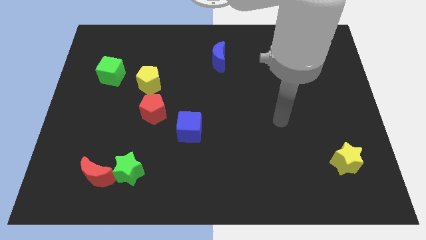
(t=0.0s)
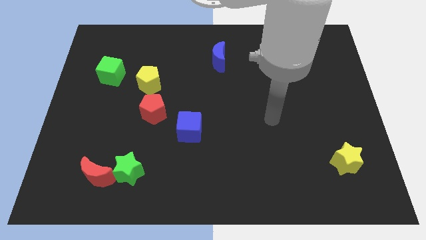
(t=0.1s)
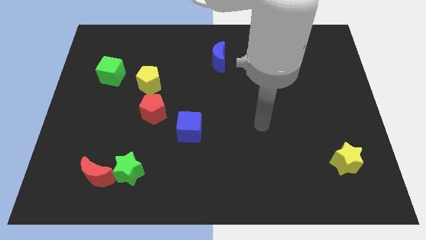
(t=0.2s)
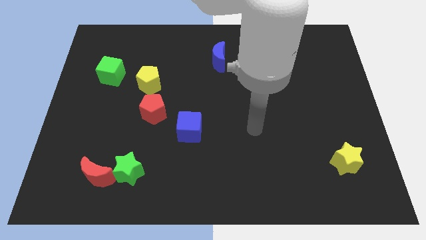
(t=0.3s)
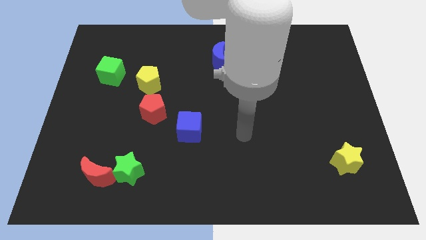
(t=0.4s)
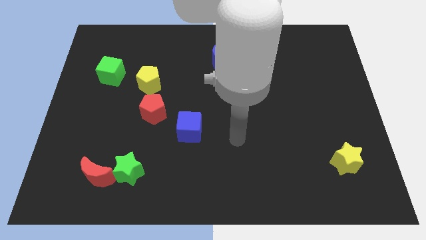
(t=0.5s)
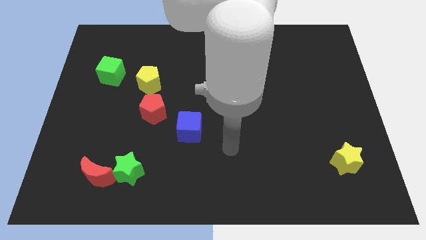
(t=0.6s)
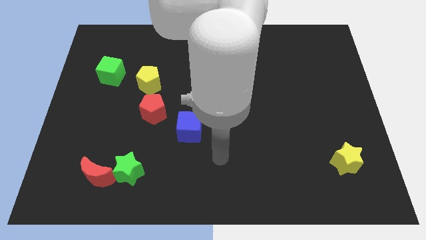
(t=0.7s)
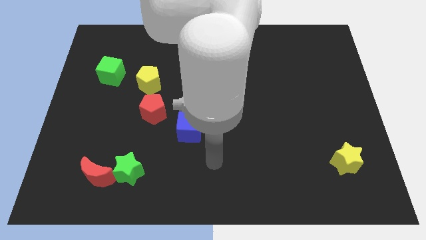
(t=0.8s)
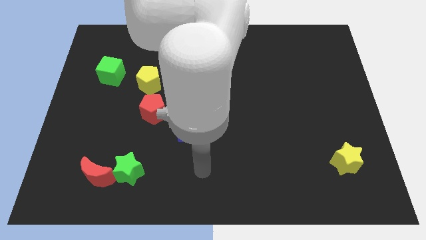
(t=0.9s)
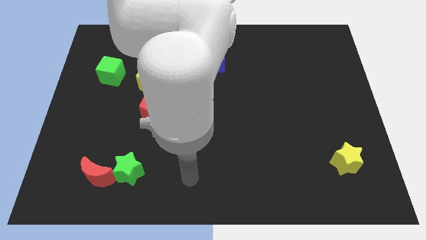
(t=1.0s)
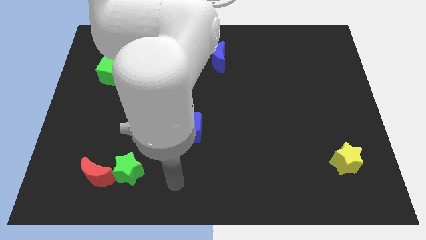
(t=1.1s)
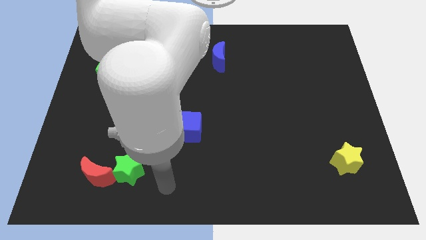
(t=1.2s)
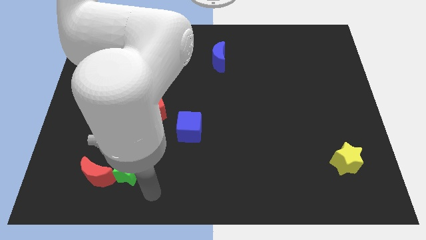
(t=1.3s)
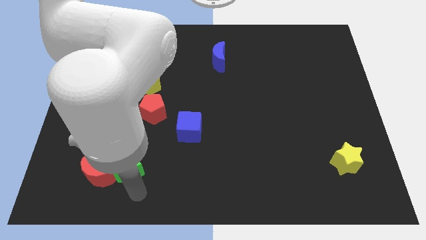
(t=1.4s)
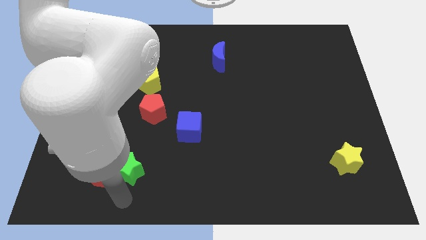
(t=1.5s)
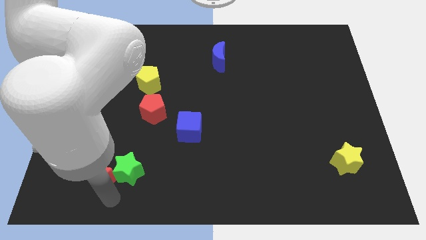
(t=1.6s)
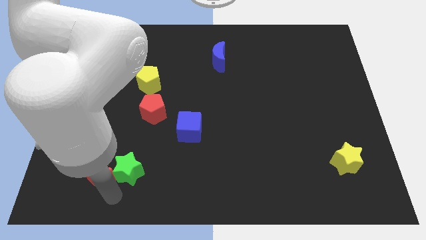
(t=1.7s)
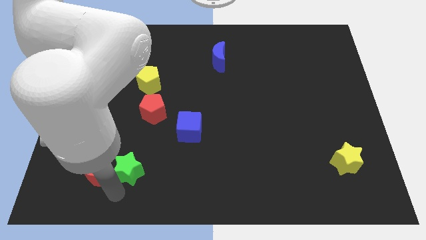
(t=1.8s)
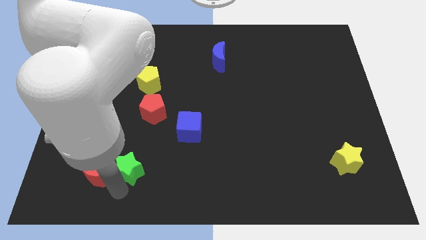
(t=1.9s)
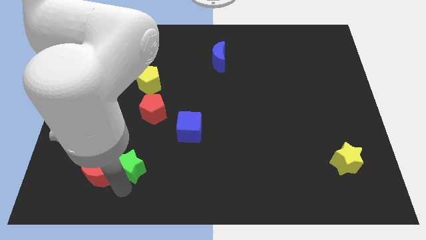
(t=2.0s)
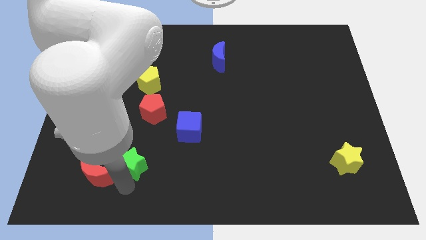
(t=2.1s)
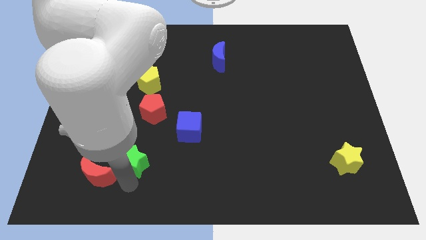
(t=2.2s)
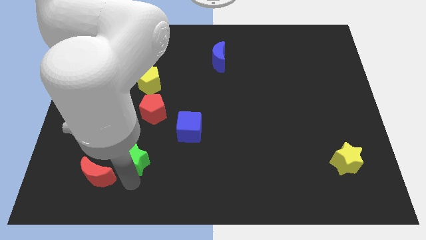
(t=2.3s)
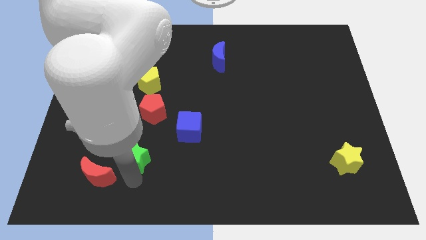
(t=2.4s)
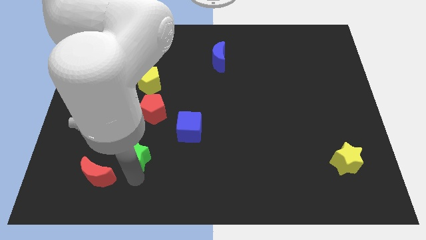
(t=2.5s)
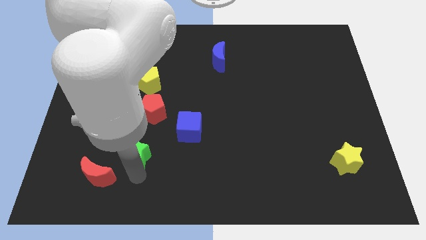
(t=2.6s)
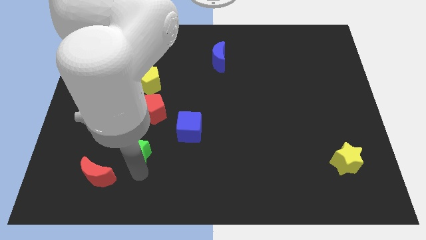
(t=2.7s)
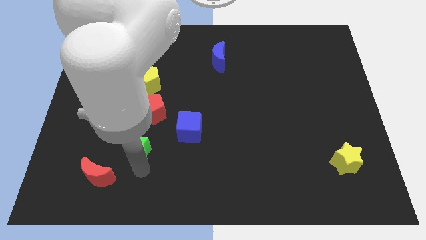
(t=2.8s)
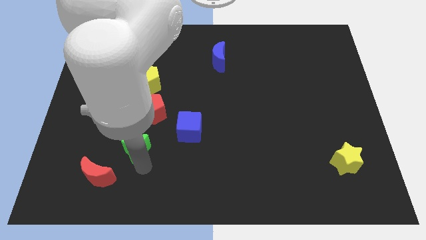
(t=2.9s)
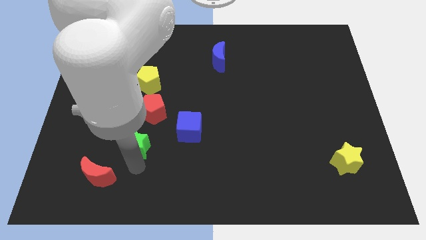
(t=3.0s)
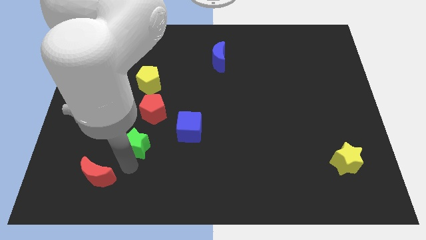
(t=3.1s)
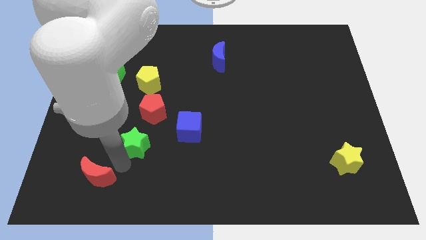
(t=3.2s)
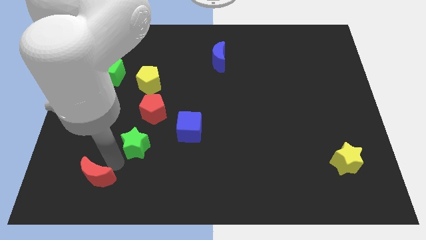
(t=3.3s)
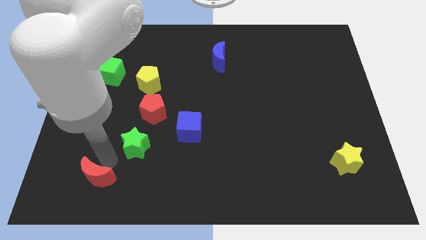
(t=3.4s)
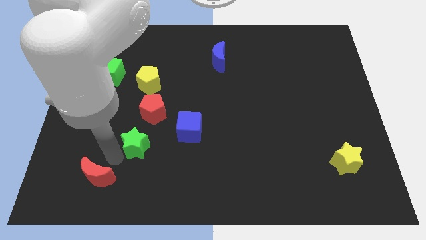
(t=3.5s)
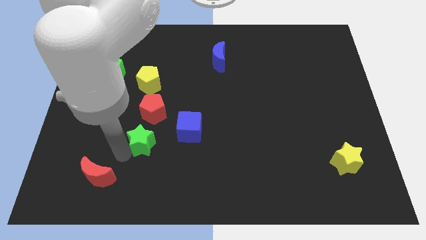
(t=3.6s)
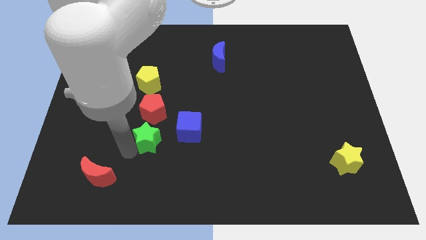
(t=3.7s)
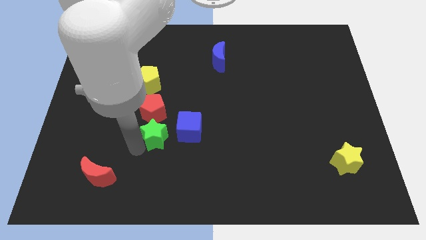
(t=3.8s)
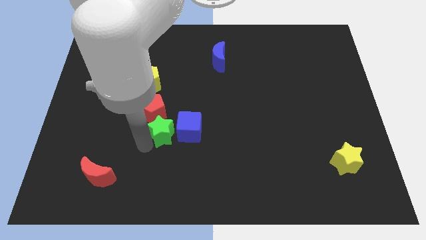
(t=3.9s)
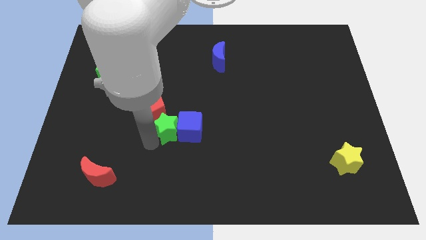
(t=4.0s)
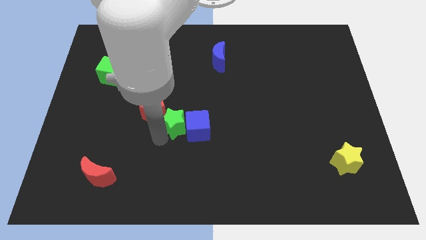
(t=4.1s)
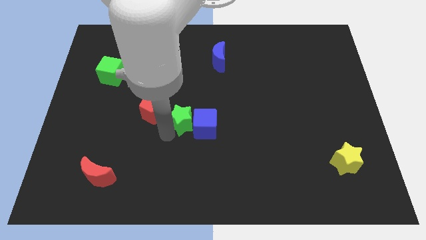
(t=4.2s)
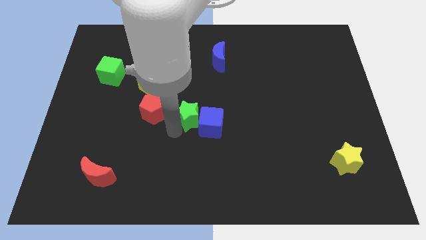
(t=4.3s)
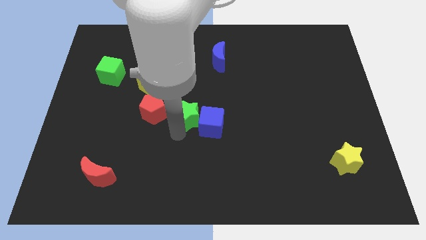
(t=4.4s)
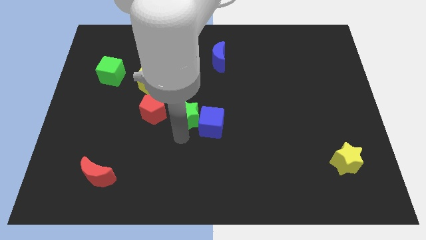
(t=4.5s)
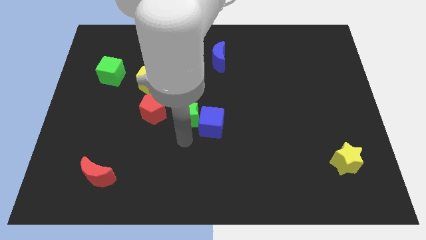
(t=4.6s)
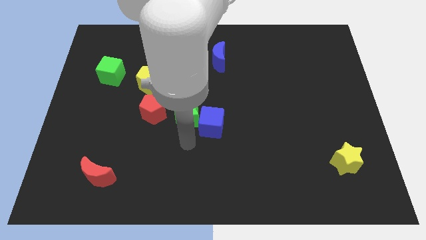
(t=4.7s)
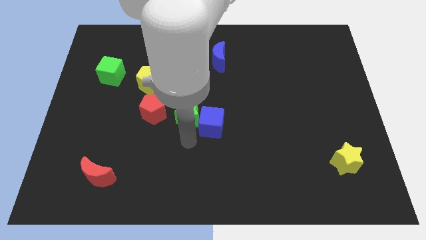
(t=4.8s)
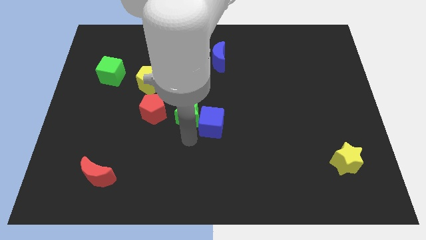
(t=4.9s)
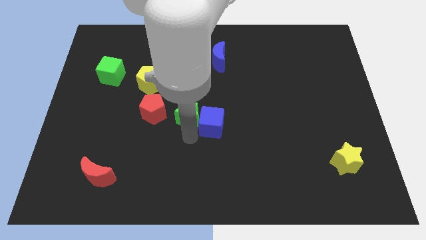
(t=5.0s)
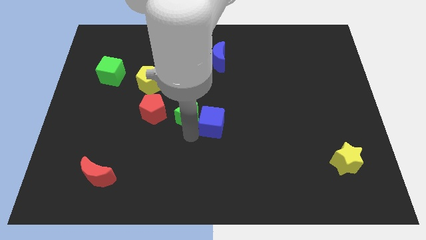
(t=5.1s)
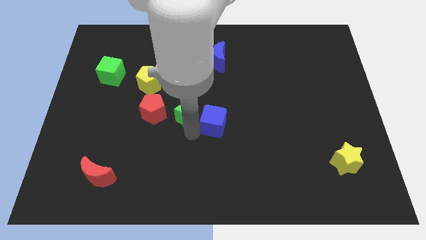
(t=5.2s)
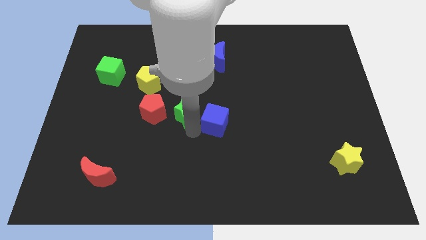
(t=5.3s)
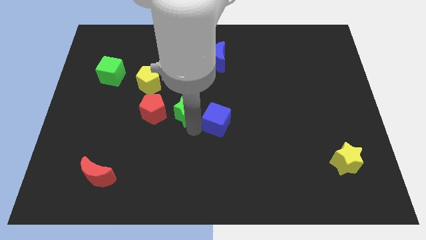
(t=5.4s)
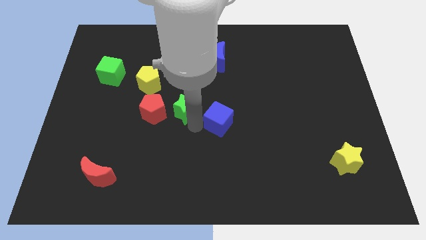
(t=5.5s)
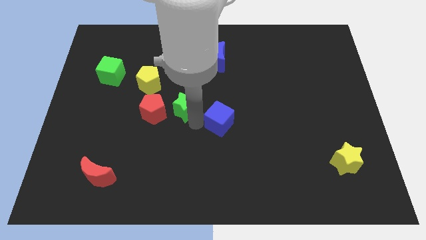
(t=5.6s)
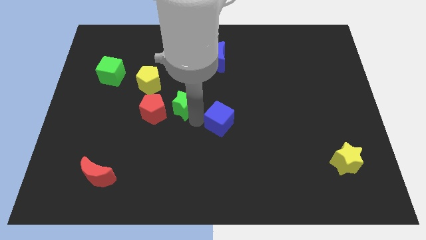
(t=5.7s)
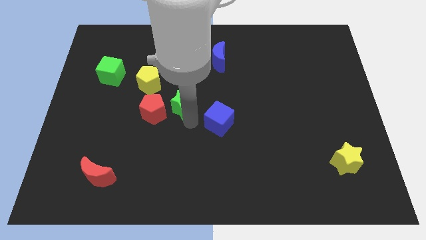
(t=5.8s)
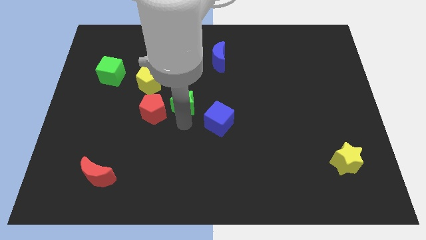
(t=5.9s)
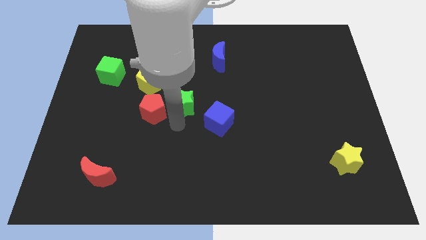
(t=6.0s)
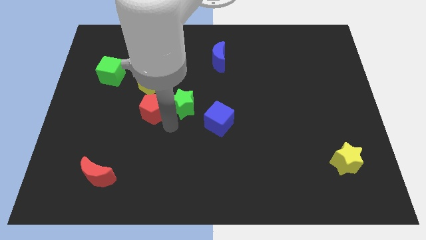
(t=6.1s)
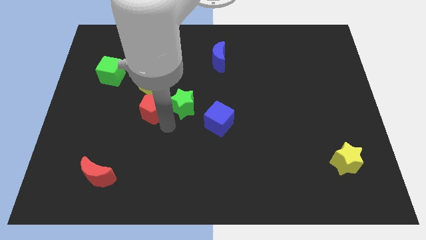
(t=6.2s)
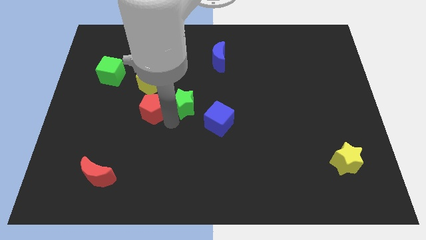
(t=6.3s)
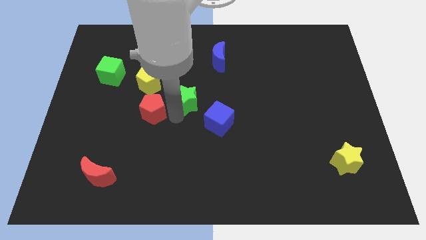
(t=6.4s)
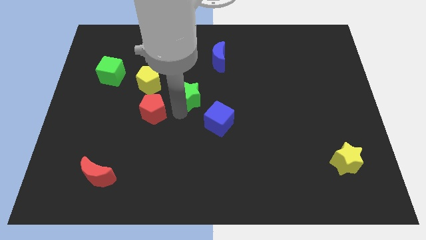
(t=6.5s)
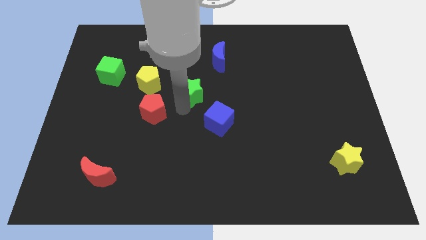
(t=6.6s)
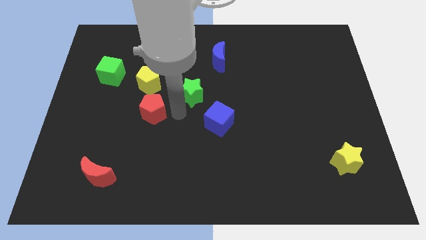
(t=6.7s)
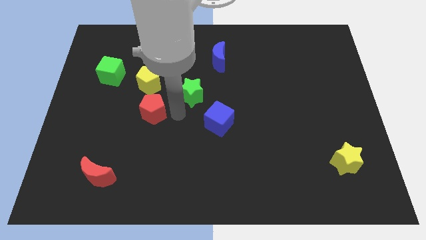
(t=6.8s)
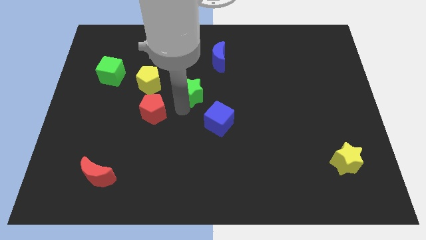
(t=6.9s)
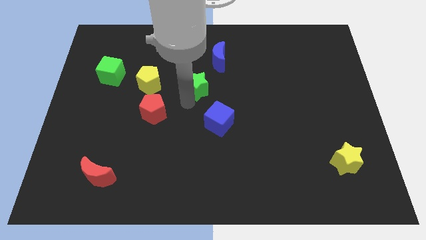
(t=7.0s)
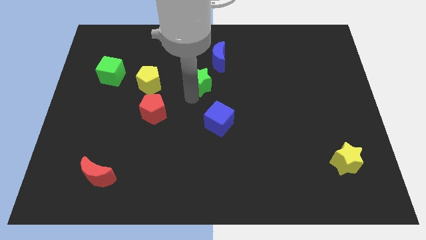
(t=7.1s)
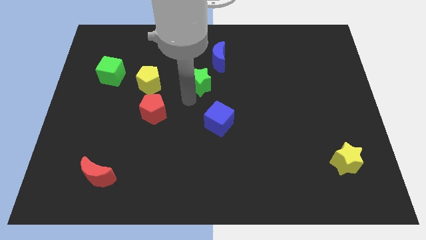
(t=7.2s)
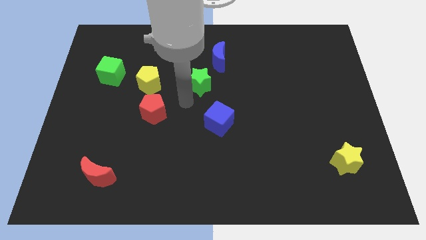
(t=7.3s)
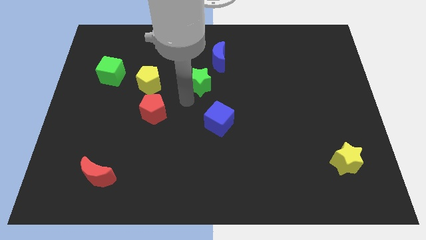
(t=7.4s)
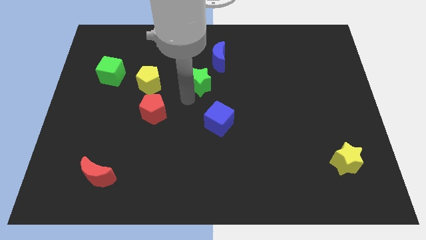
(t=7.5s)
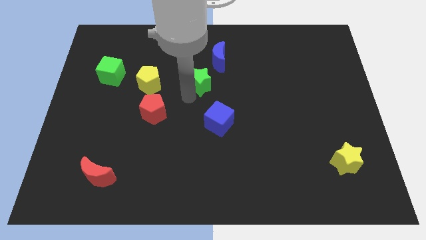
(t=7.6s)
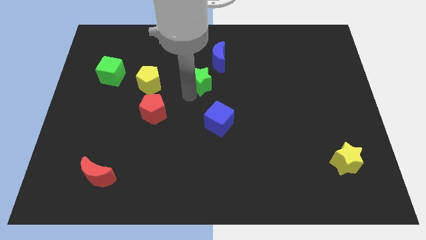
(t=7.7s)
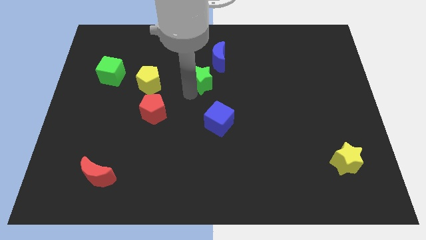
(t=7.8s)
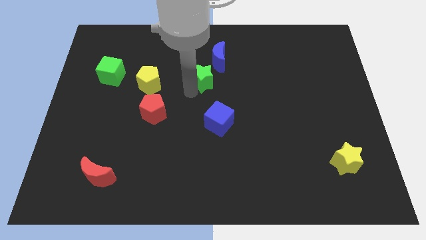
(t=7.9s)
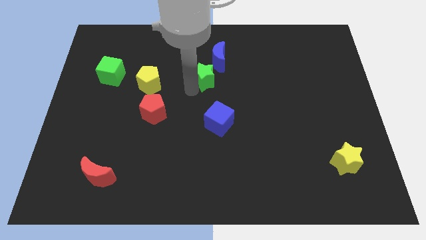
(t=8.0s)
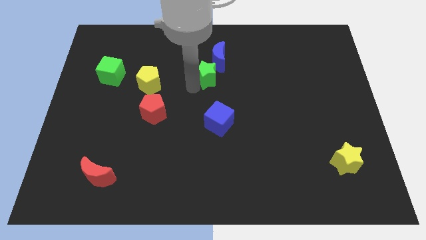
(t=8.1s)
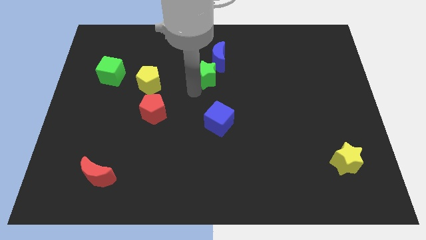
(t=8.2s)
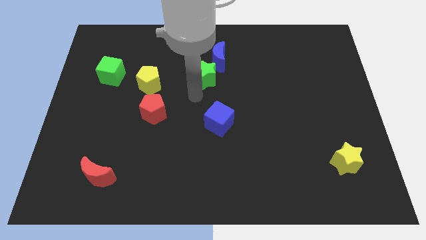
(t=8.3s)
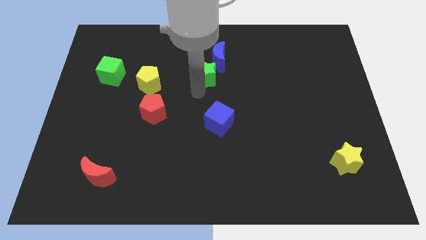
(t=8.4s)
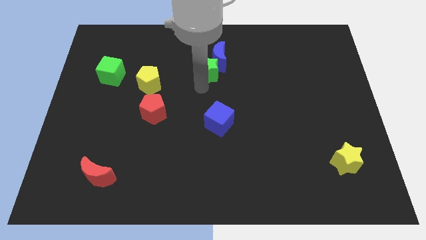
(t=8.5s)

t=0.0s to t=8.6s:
put the green star next to the blue moon
